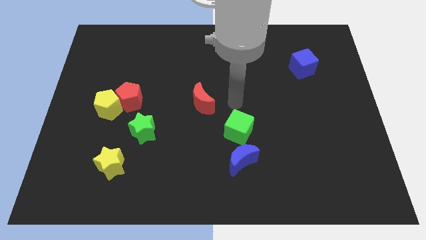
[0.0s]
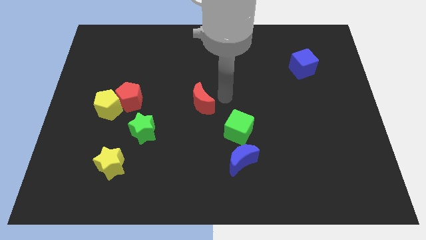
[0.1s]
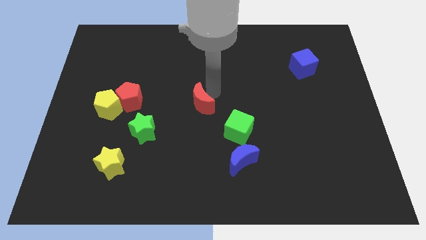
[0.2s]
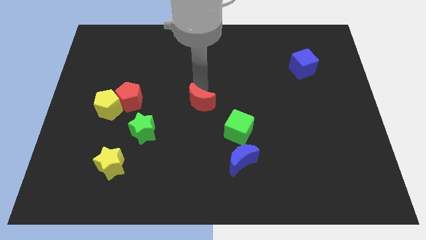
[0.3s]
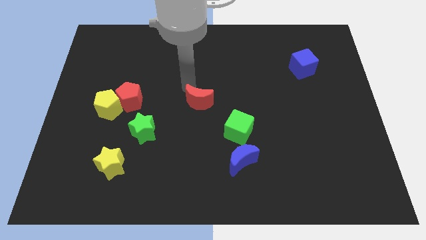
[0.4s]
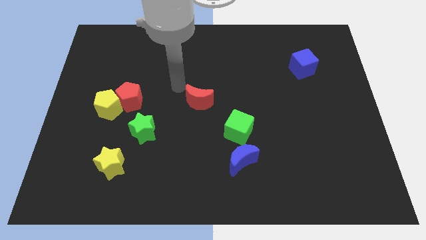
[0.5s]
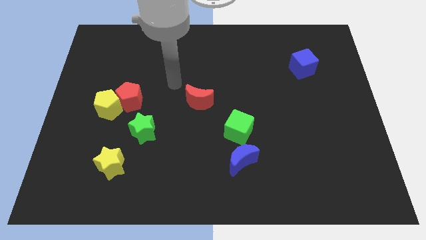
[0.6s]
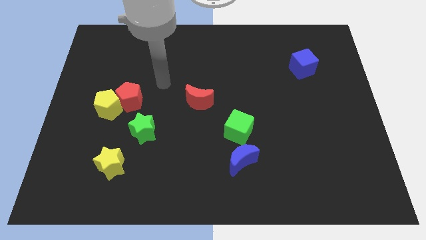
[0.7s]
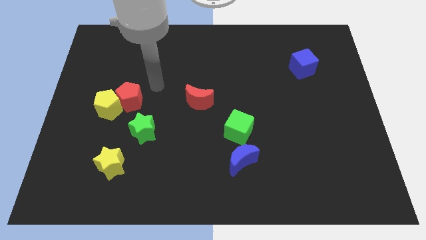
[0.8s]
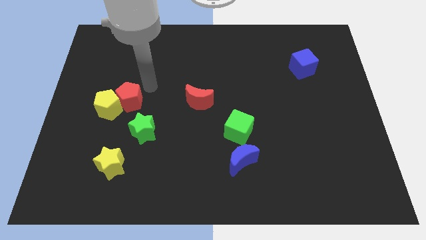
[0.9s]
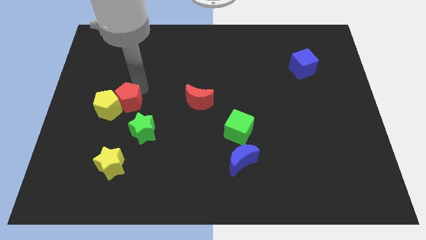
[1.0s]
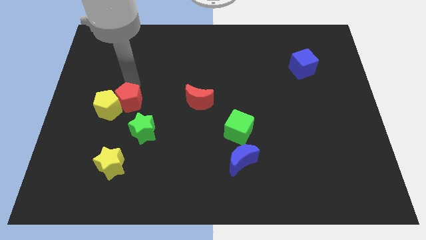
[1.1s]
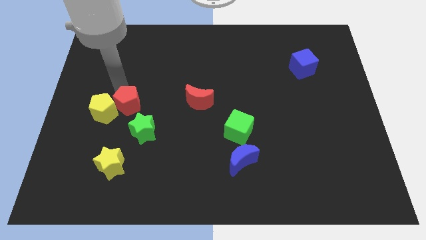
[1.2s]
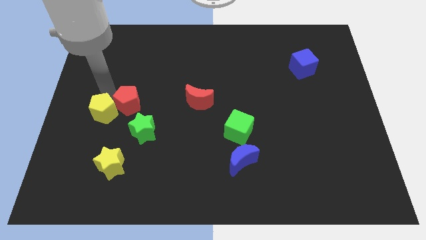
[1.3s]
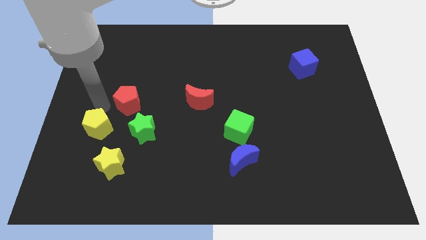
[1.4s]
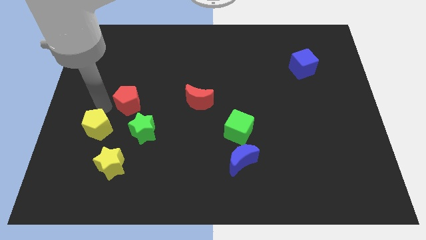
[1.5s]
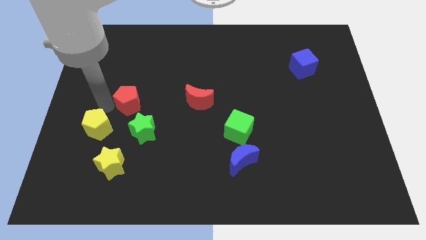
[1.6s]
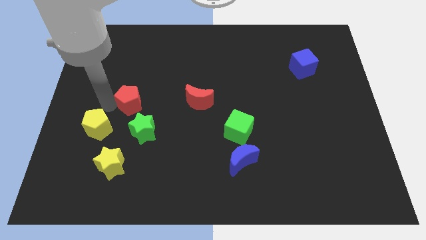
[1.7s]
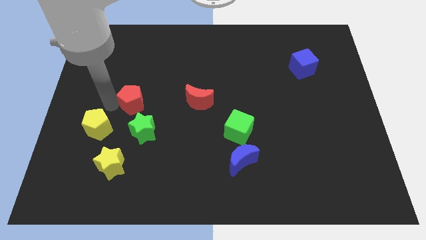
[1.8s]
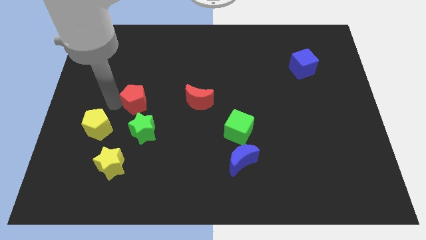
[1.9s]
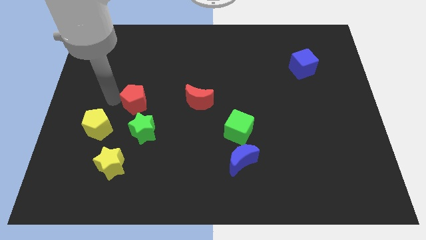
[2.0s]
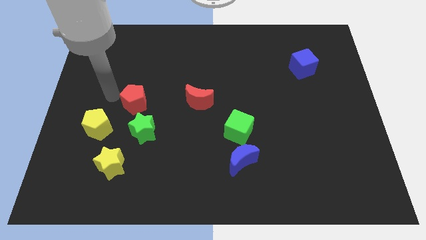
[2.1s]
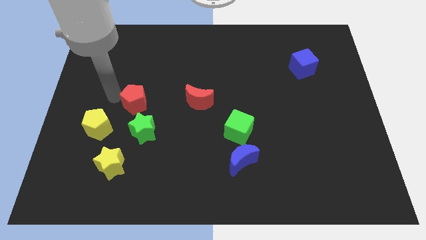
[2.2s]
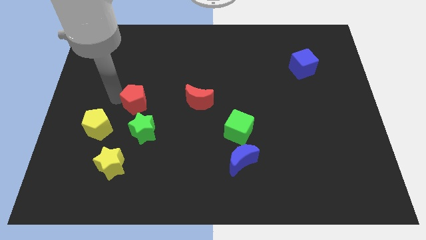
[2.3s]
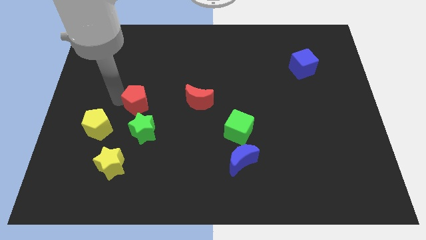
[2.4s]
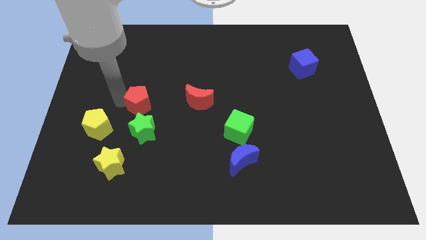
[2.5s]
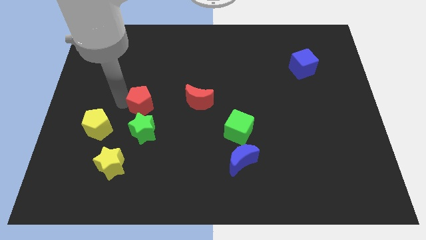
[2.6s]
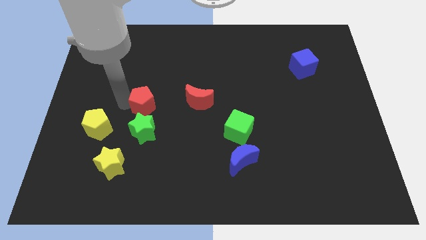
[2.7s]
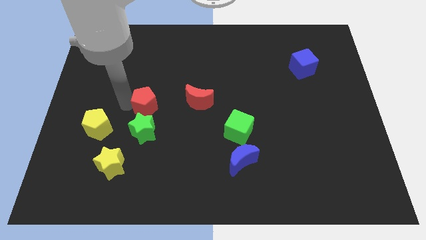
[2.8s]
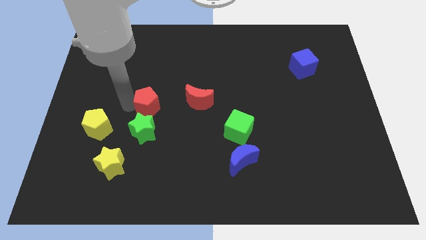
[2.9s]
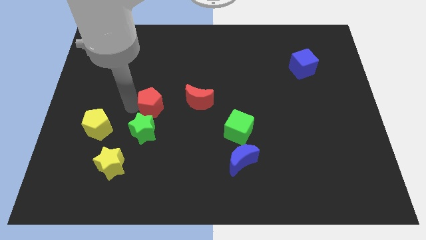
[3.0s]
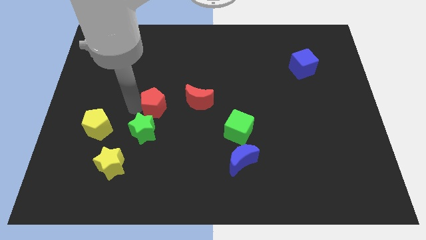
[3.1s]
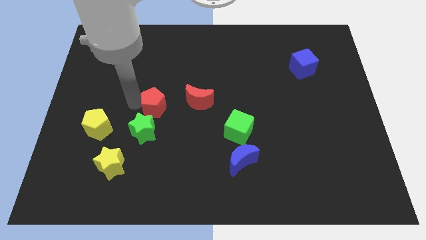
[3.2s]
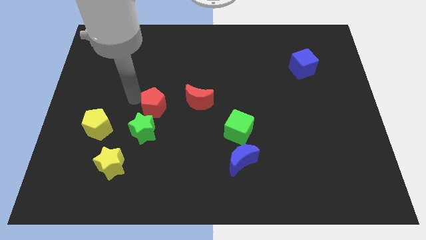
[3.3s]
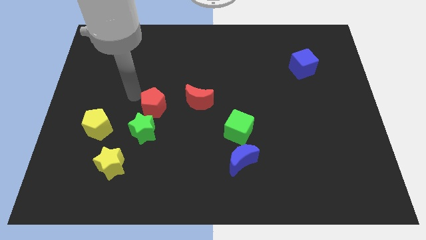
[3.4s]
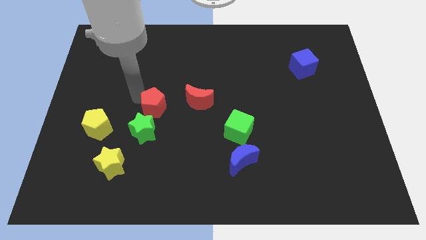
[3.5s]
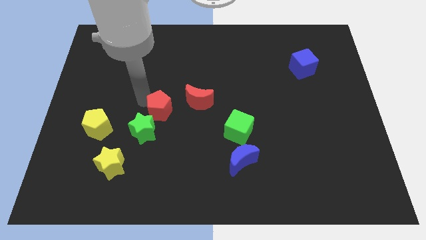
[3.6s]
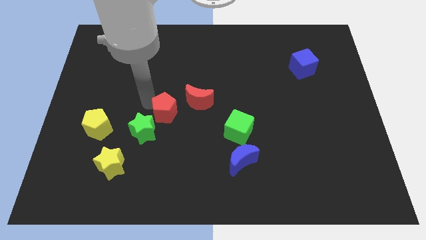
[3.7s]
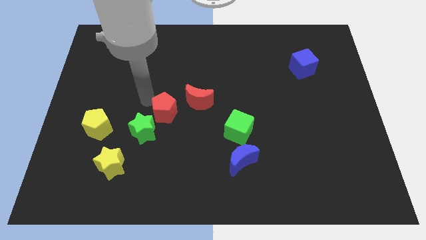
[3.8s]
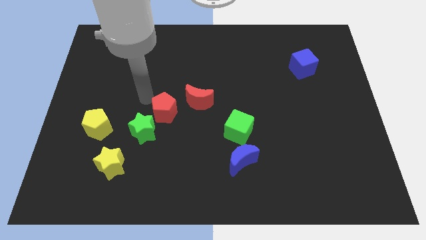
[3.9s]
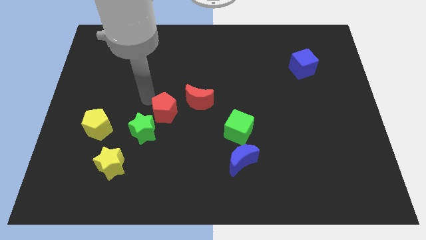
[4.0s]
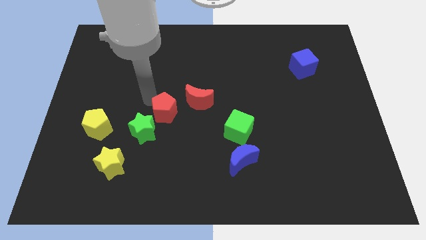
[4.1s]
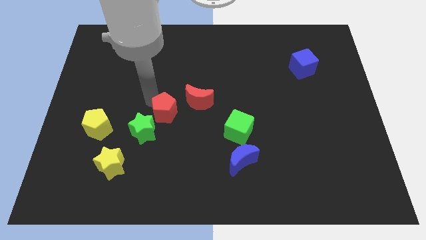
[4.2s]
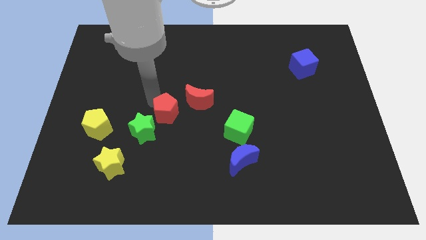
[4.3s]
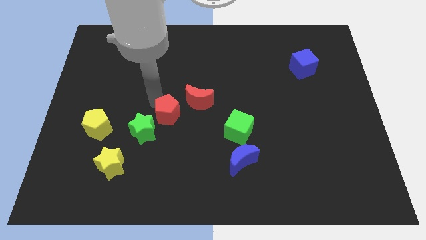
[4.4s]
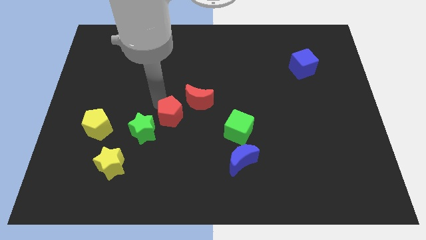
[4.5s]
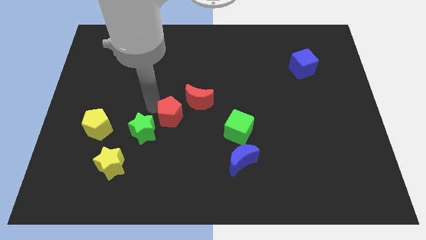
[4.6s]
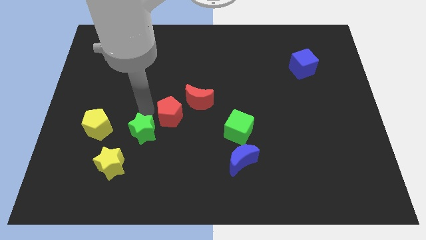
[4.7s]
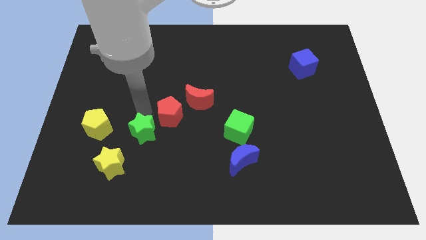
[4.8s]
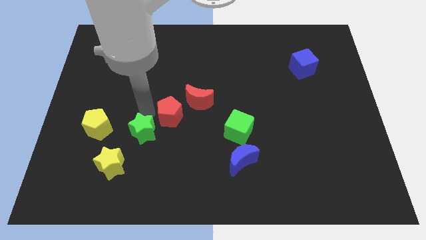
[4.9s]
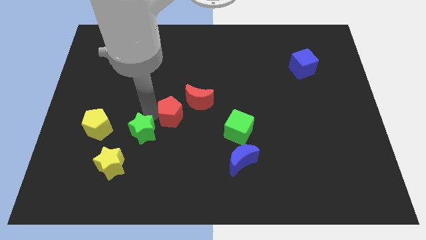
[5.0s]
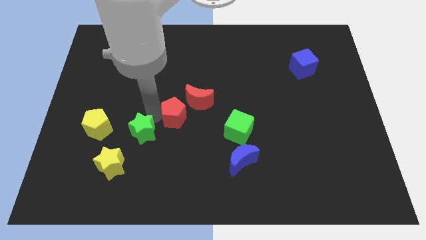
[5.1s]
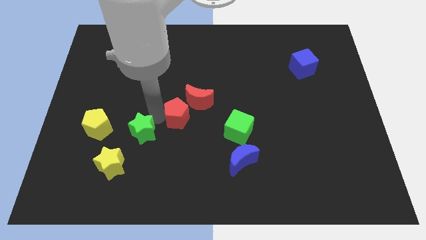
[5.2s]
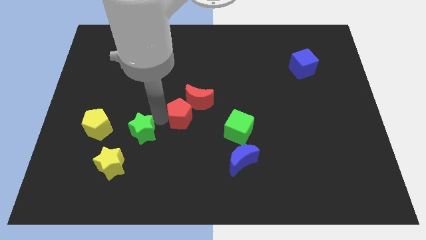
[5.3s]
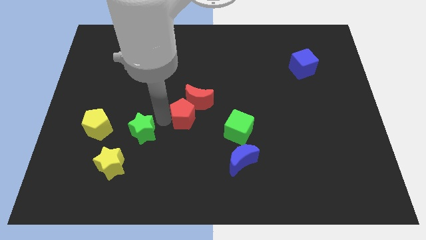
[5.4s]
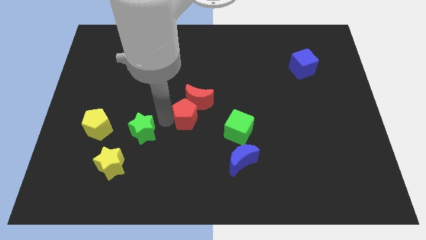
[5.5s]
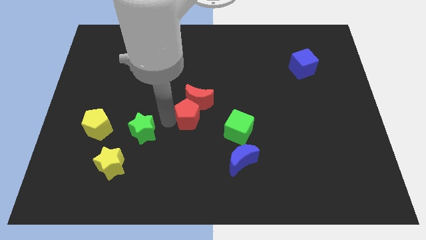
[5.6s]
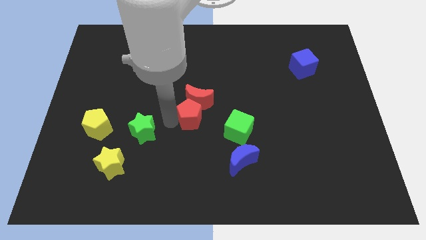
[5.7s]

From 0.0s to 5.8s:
slide the red pentagon diagonally down and to the right of the red moon

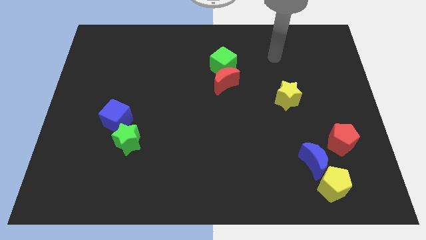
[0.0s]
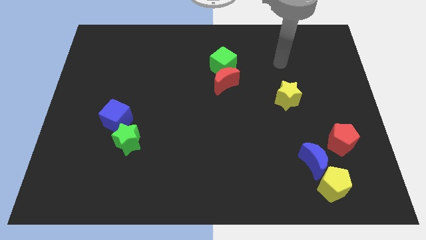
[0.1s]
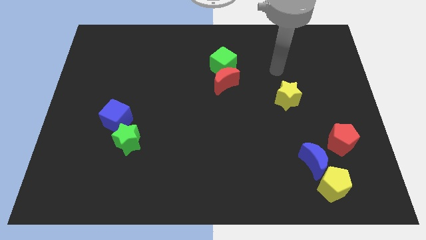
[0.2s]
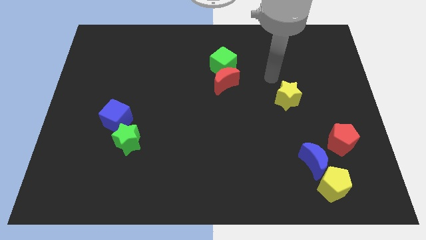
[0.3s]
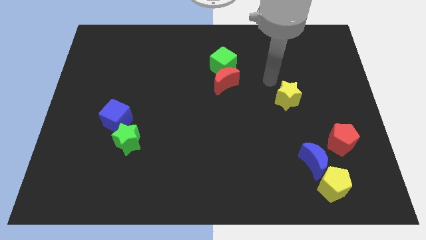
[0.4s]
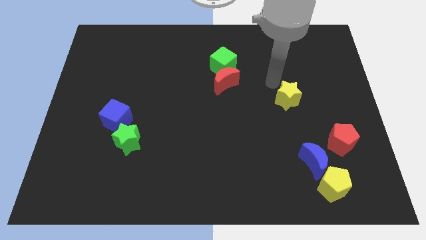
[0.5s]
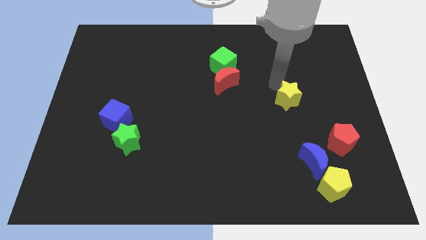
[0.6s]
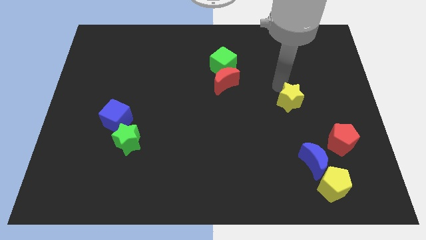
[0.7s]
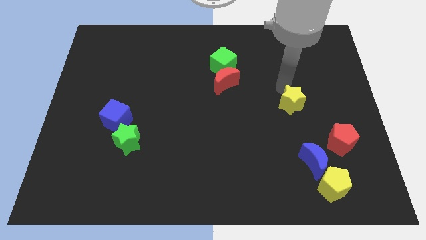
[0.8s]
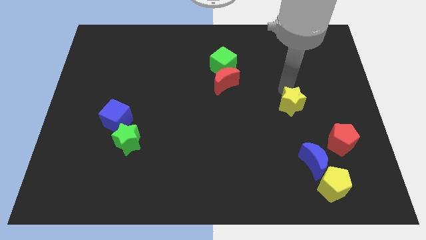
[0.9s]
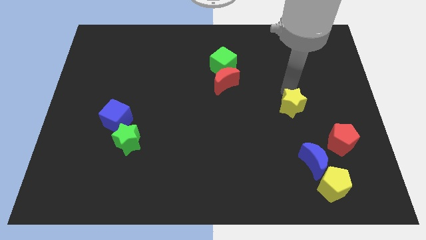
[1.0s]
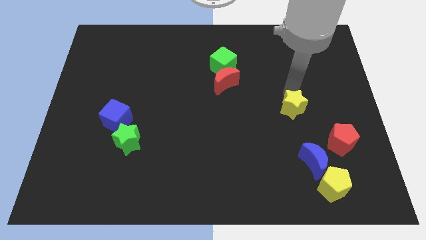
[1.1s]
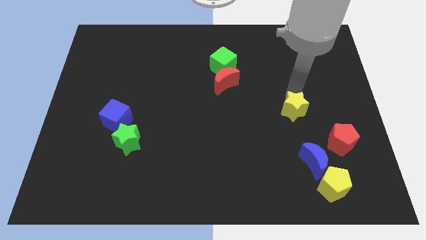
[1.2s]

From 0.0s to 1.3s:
move the yellow star to the top left of the red pentagon
